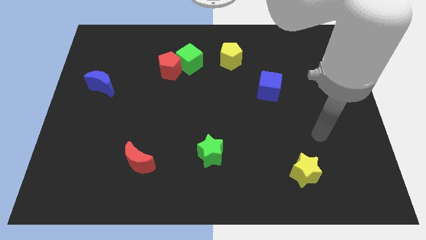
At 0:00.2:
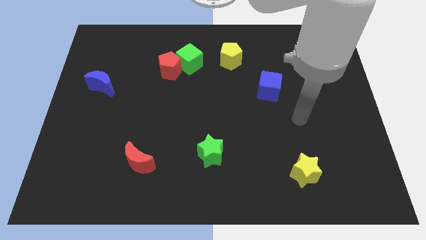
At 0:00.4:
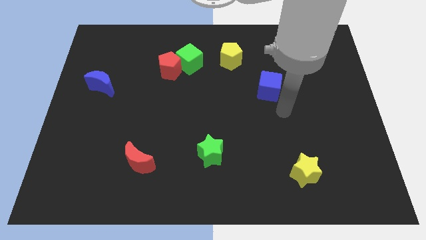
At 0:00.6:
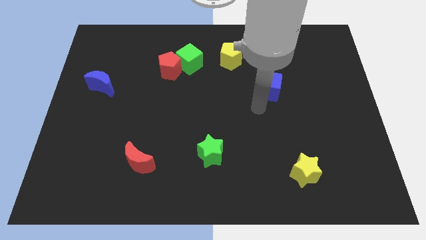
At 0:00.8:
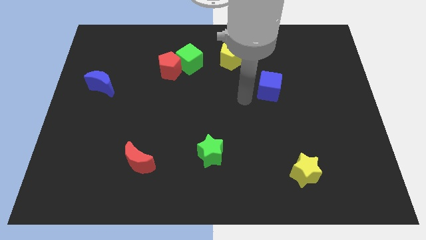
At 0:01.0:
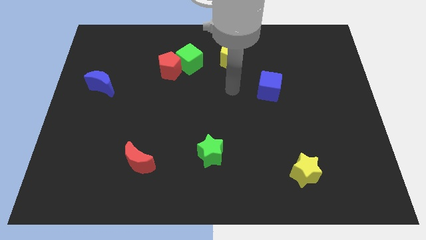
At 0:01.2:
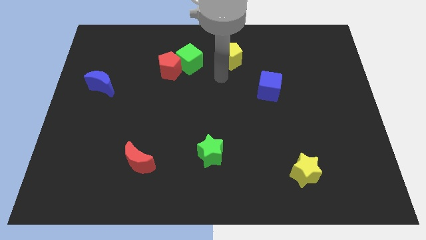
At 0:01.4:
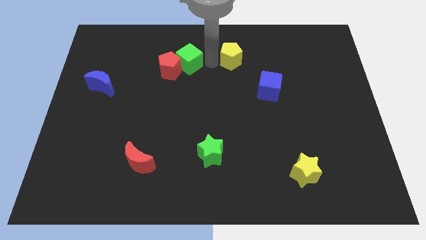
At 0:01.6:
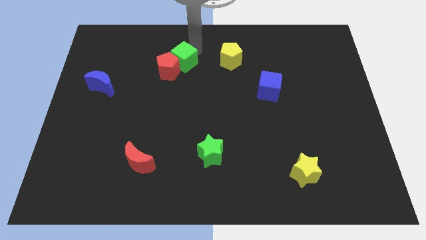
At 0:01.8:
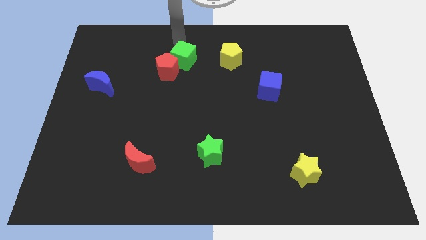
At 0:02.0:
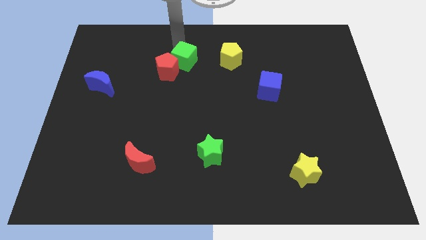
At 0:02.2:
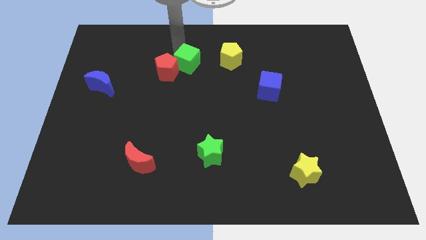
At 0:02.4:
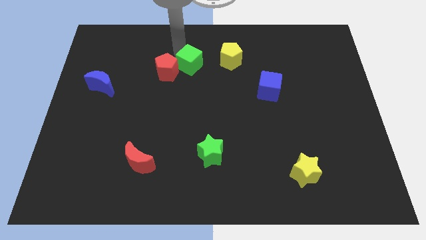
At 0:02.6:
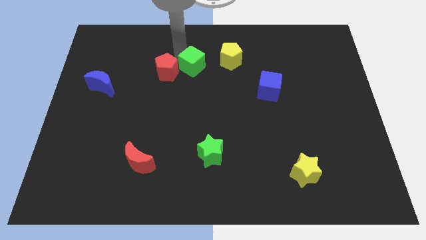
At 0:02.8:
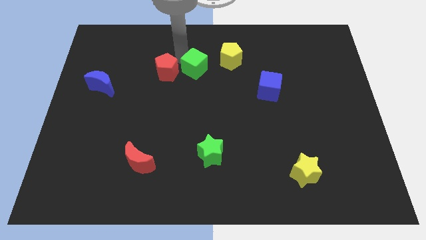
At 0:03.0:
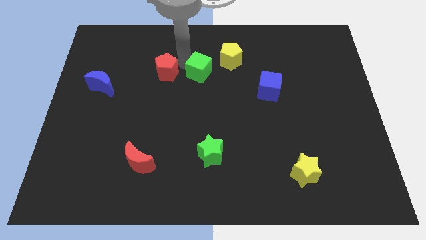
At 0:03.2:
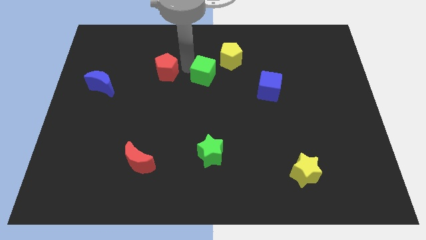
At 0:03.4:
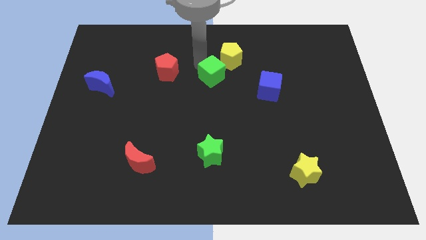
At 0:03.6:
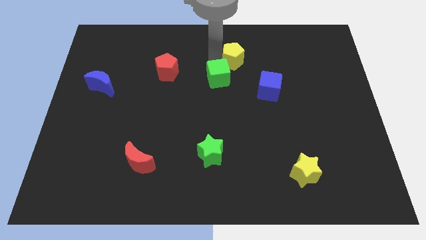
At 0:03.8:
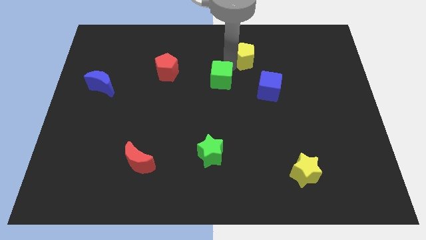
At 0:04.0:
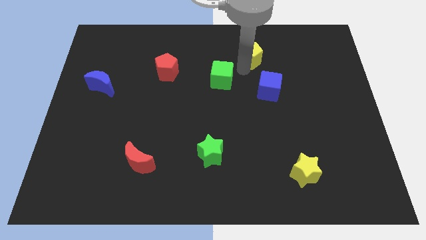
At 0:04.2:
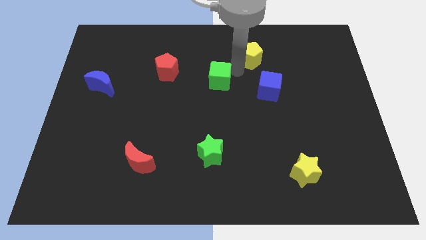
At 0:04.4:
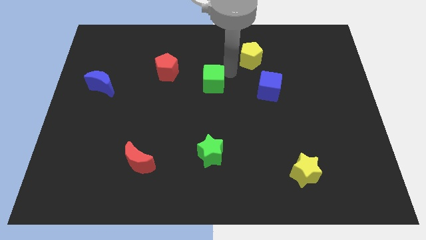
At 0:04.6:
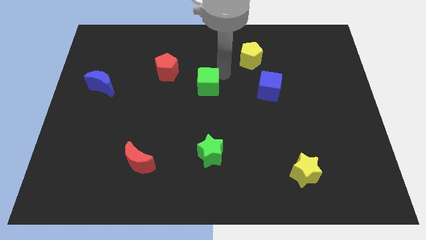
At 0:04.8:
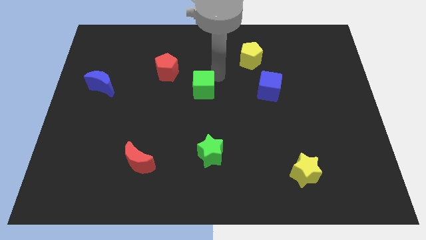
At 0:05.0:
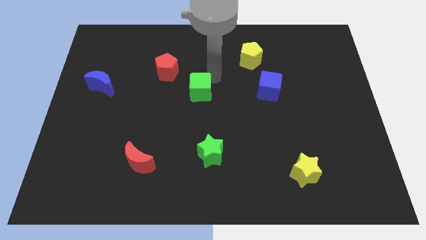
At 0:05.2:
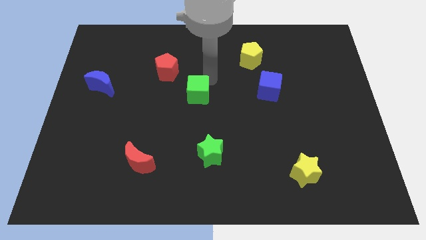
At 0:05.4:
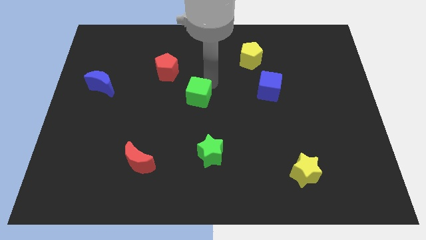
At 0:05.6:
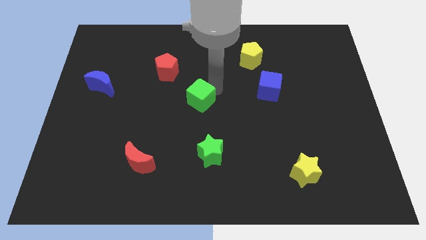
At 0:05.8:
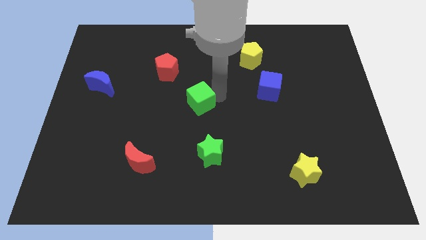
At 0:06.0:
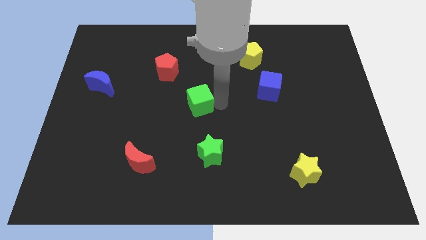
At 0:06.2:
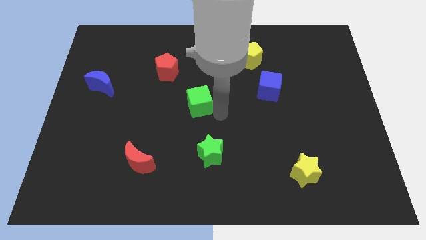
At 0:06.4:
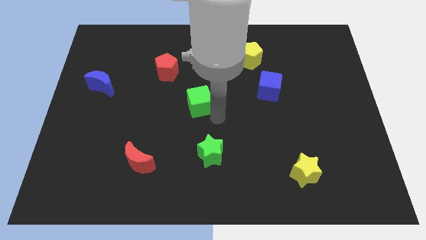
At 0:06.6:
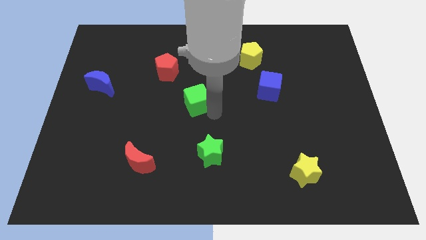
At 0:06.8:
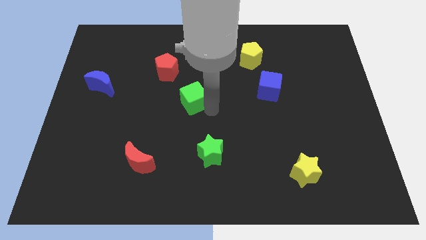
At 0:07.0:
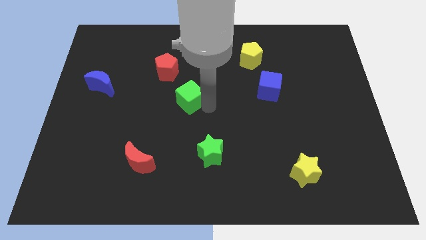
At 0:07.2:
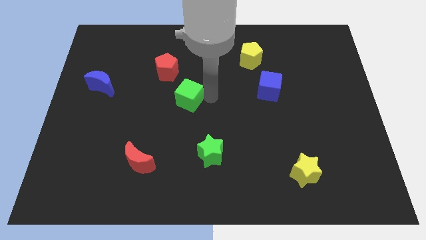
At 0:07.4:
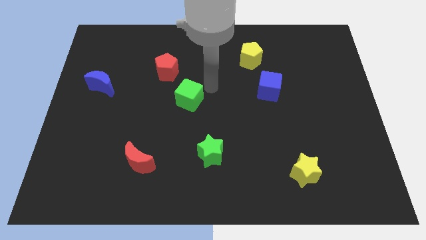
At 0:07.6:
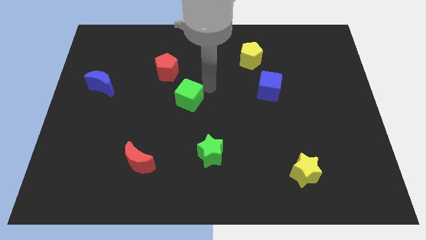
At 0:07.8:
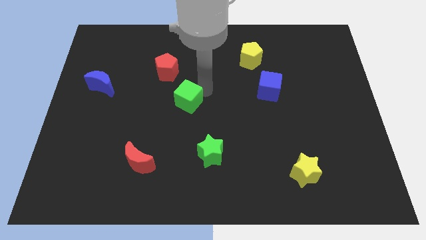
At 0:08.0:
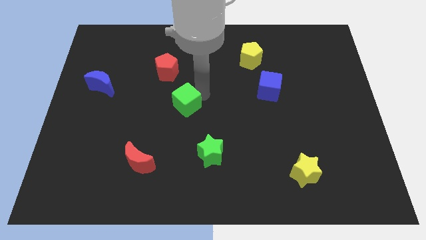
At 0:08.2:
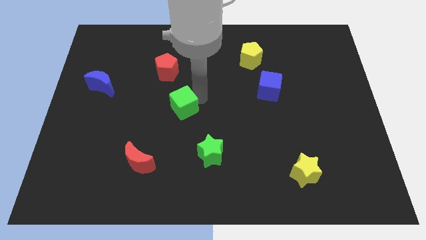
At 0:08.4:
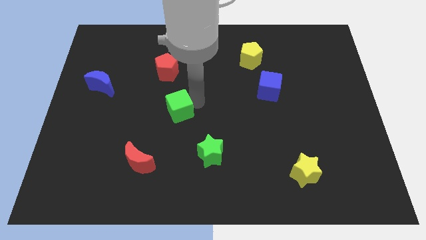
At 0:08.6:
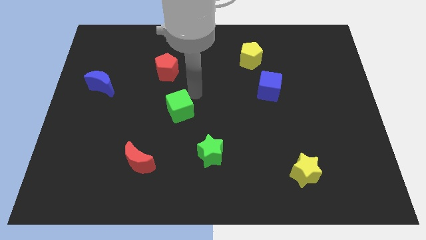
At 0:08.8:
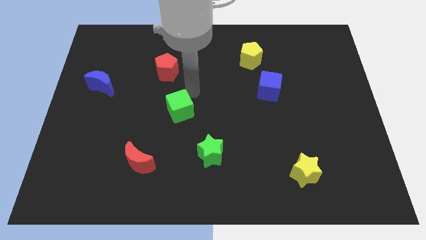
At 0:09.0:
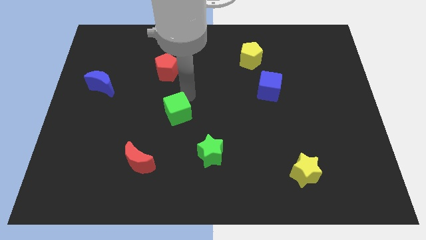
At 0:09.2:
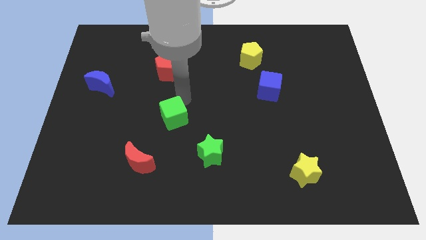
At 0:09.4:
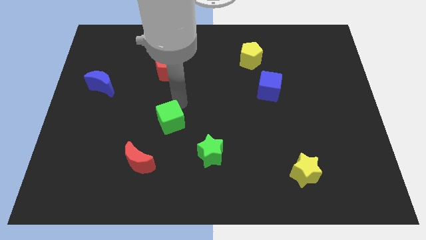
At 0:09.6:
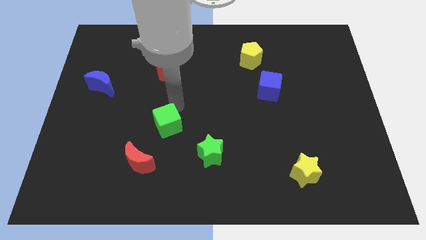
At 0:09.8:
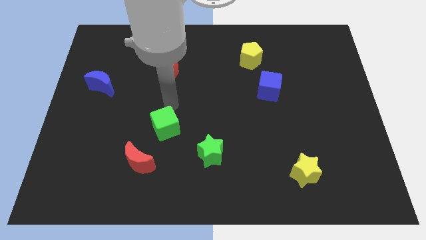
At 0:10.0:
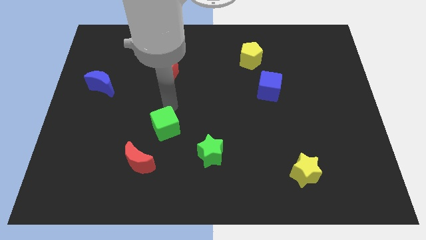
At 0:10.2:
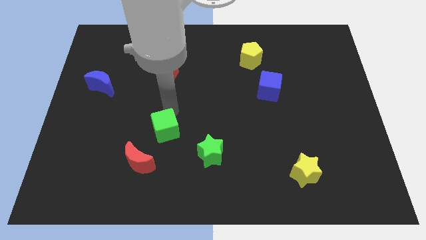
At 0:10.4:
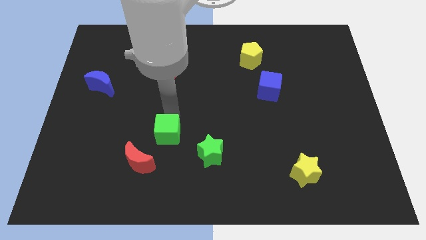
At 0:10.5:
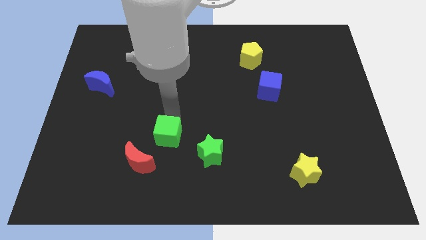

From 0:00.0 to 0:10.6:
move the green cube to the left of the green star

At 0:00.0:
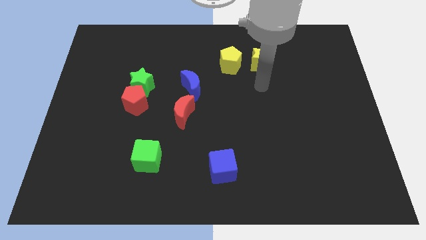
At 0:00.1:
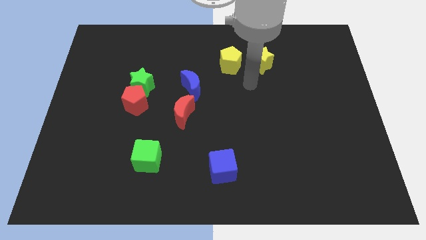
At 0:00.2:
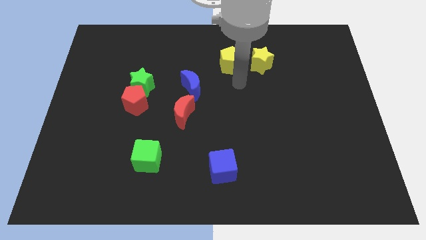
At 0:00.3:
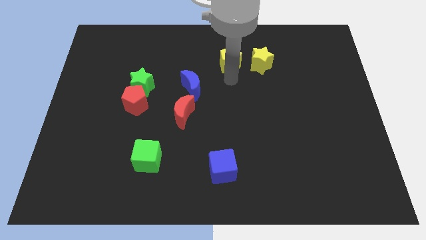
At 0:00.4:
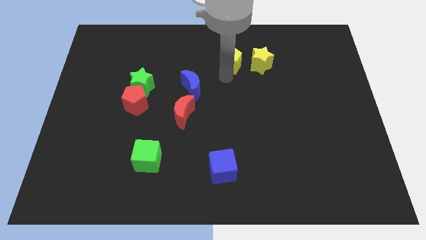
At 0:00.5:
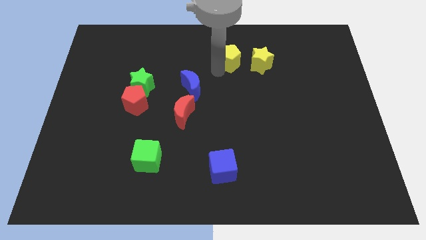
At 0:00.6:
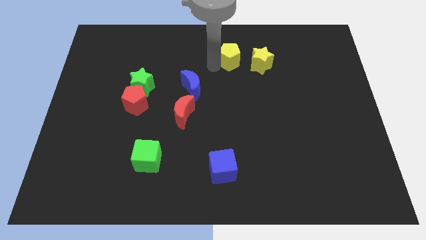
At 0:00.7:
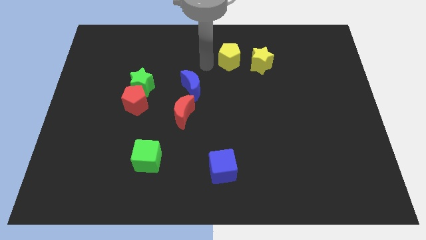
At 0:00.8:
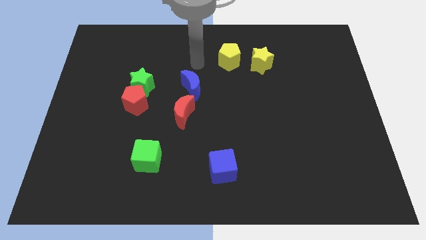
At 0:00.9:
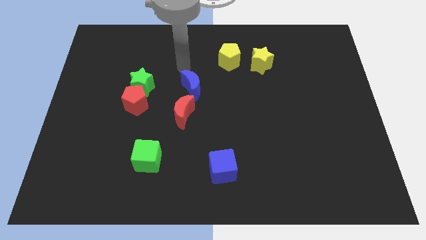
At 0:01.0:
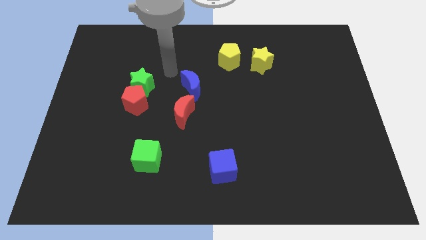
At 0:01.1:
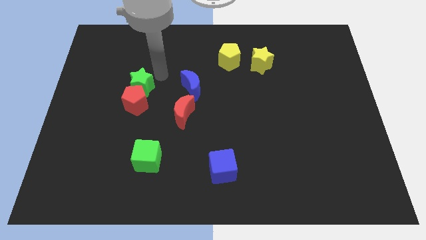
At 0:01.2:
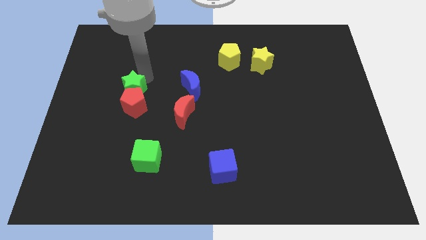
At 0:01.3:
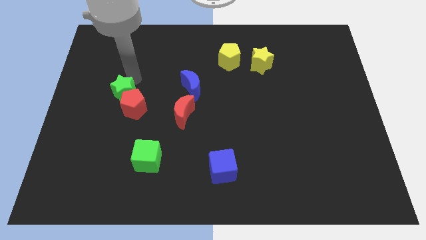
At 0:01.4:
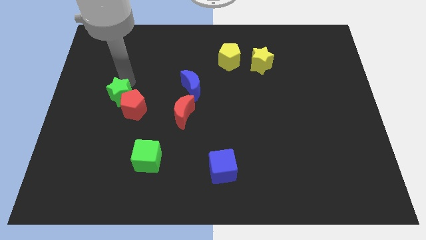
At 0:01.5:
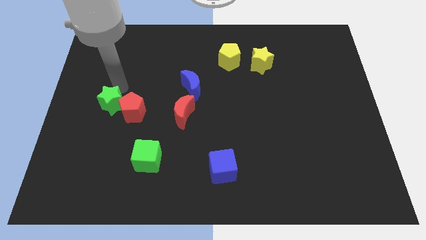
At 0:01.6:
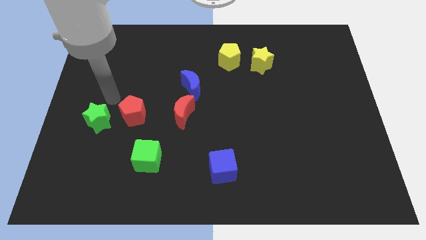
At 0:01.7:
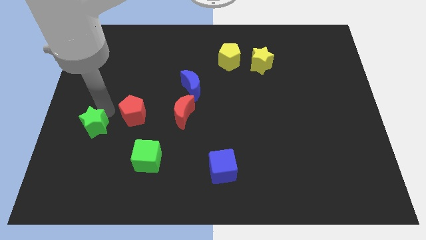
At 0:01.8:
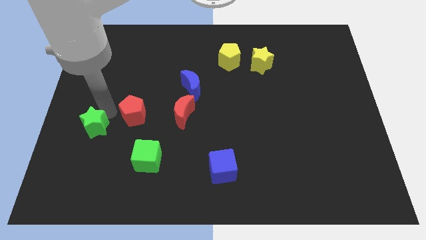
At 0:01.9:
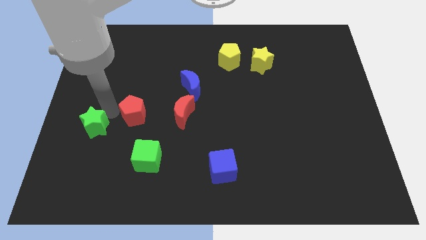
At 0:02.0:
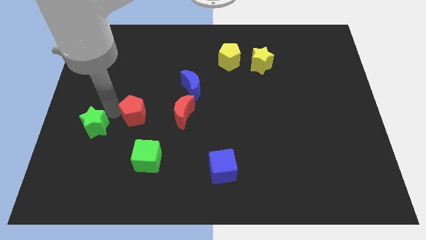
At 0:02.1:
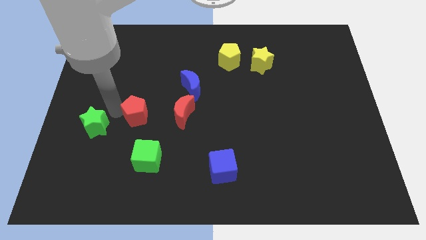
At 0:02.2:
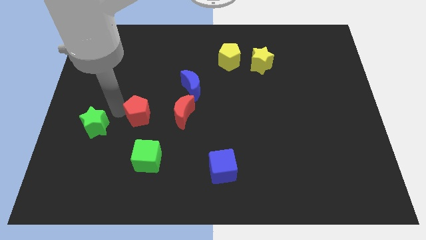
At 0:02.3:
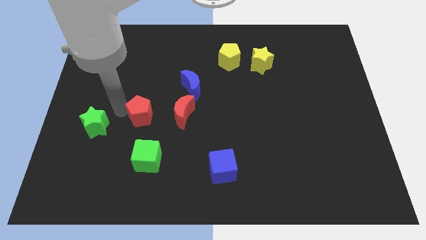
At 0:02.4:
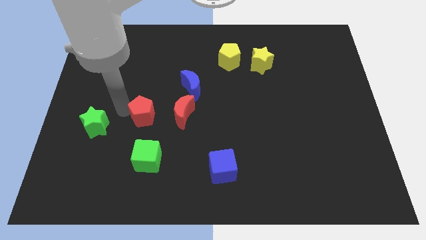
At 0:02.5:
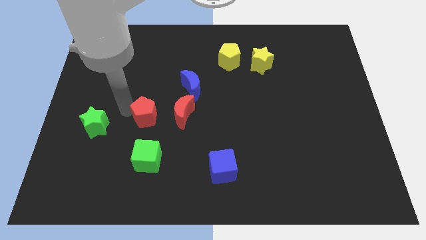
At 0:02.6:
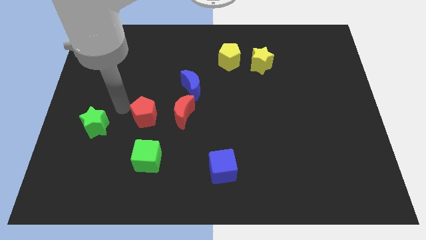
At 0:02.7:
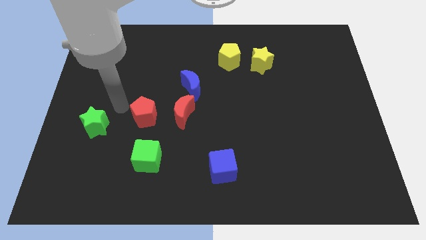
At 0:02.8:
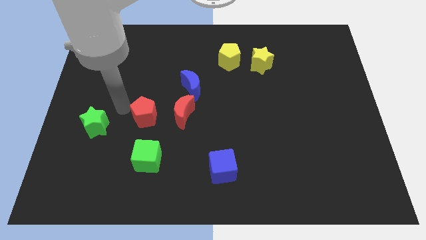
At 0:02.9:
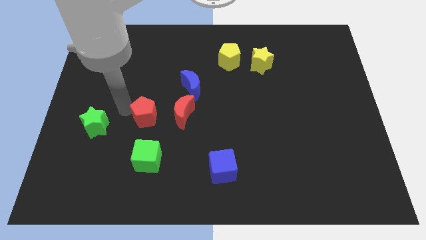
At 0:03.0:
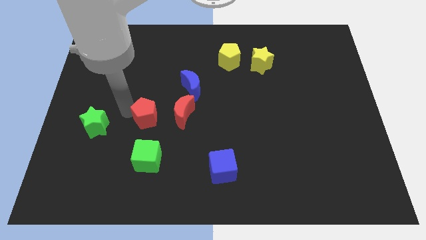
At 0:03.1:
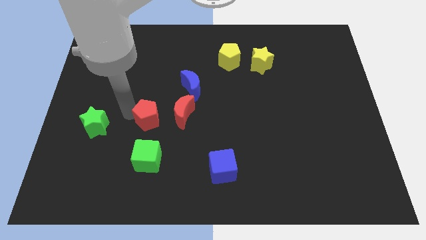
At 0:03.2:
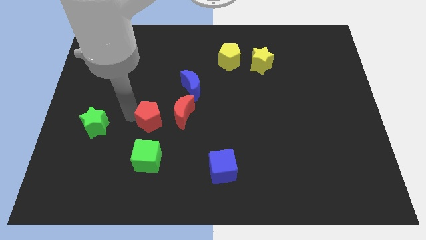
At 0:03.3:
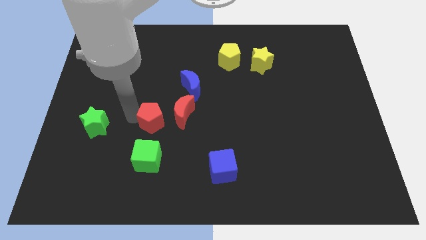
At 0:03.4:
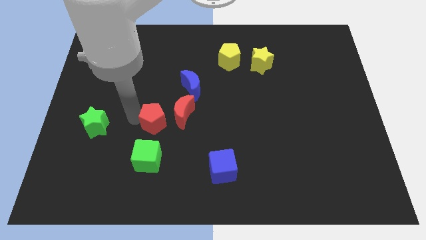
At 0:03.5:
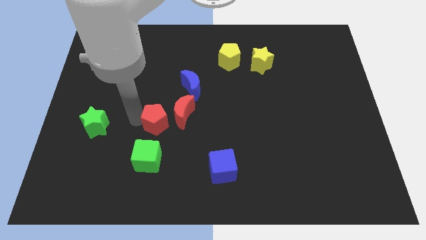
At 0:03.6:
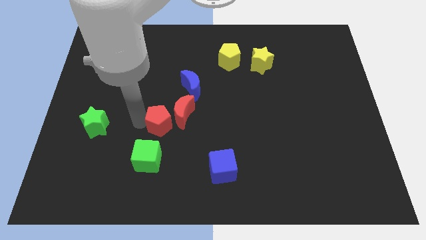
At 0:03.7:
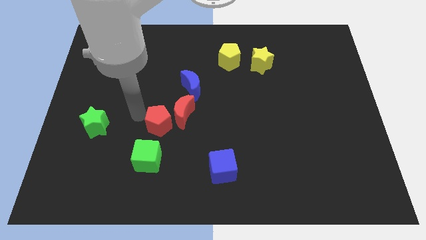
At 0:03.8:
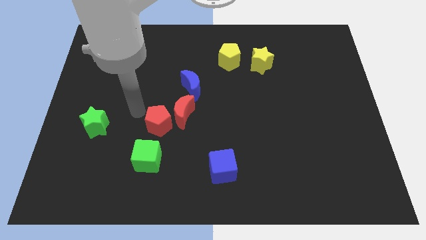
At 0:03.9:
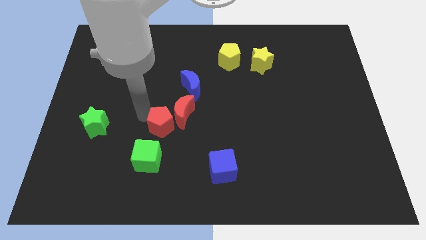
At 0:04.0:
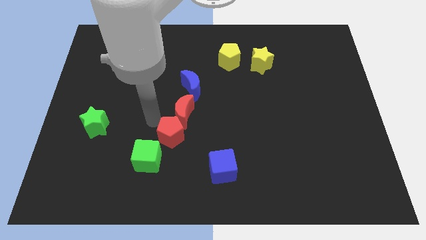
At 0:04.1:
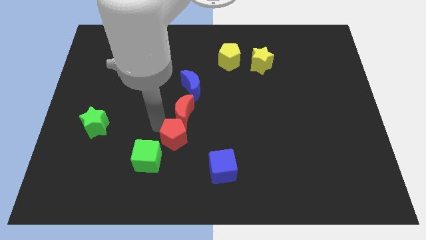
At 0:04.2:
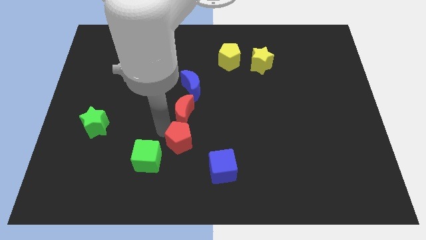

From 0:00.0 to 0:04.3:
put the red pentagon to the top left of the blue cube
